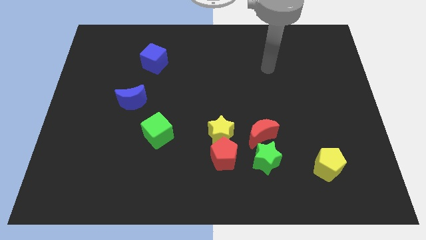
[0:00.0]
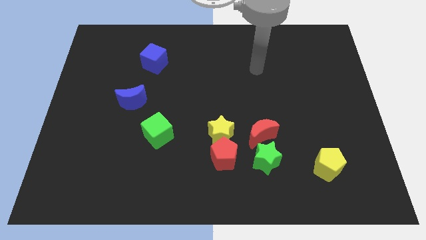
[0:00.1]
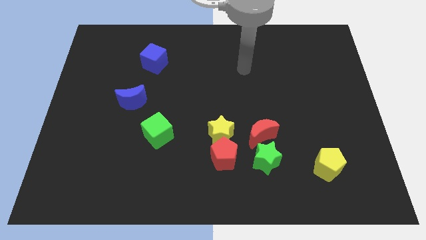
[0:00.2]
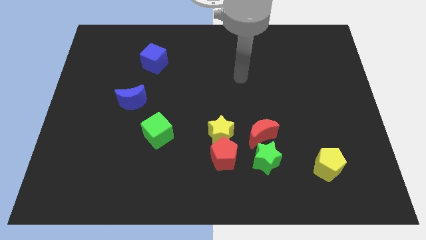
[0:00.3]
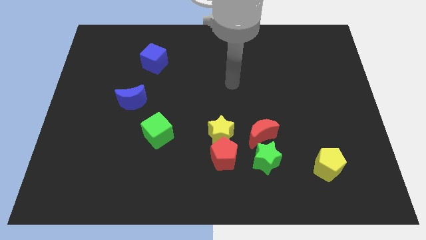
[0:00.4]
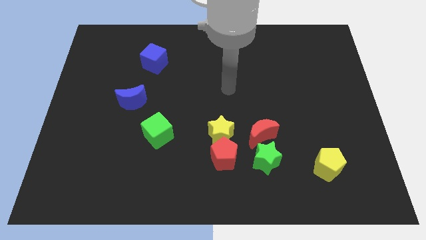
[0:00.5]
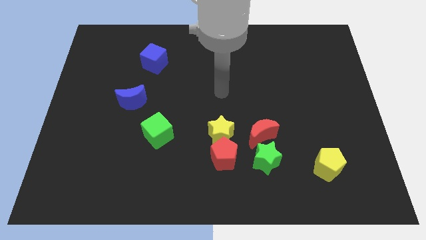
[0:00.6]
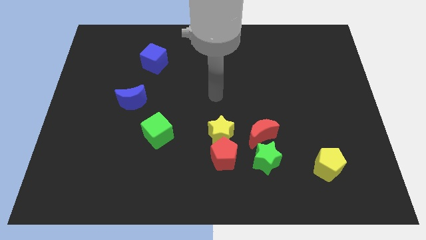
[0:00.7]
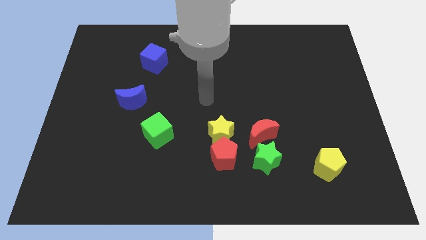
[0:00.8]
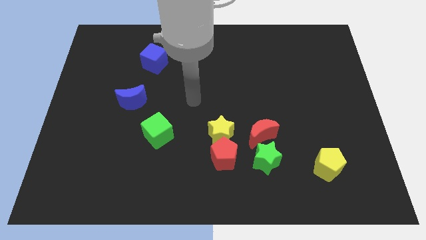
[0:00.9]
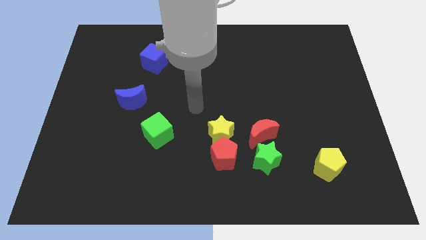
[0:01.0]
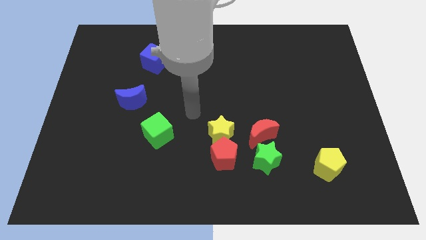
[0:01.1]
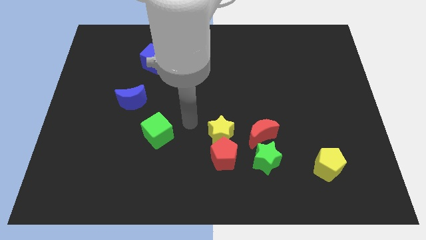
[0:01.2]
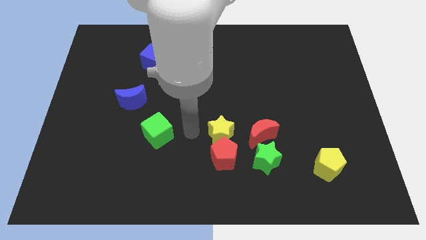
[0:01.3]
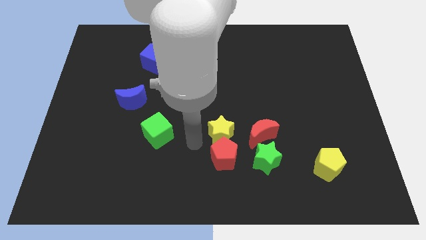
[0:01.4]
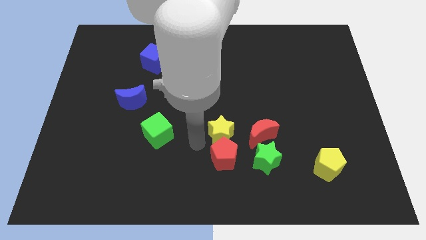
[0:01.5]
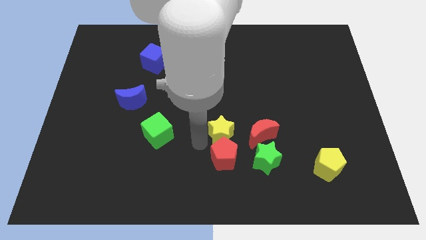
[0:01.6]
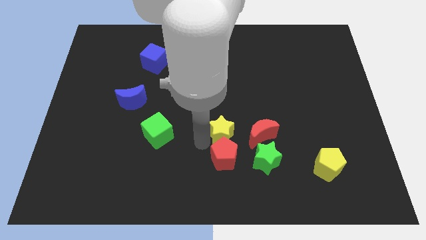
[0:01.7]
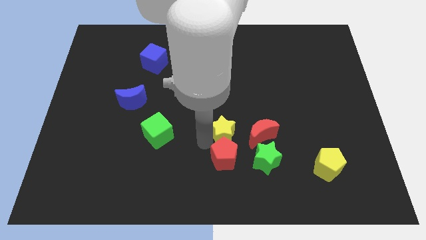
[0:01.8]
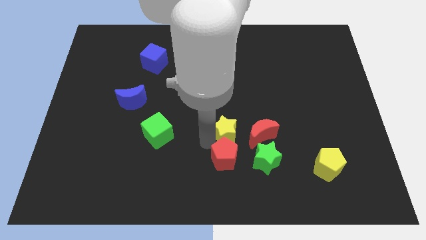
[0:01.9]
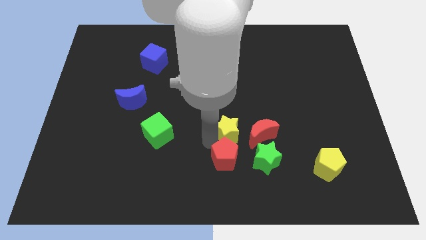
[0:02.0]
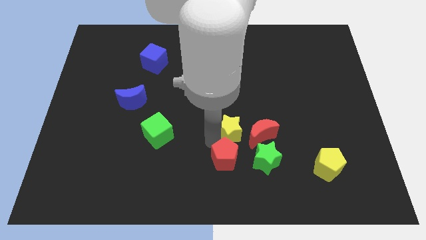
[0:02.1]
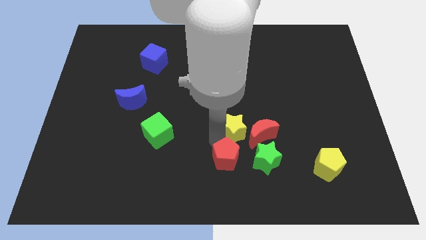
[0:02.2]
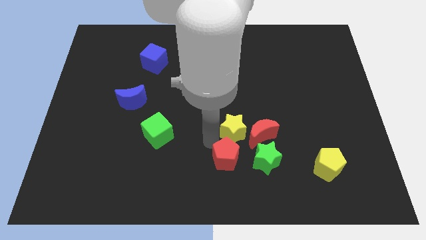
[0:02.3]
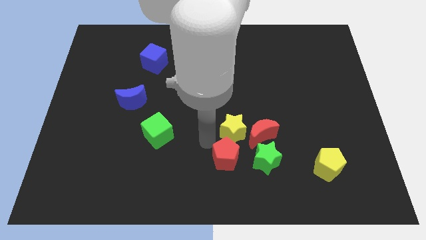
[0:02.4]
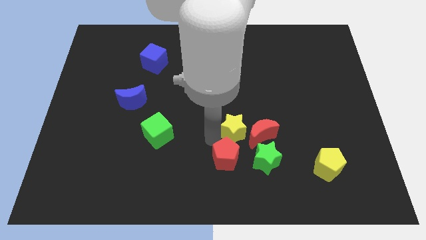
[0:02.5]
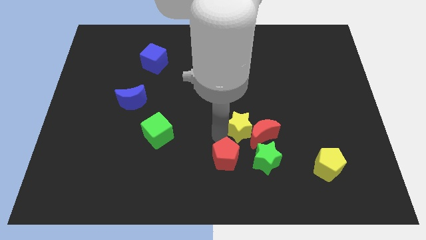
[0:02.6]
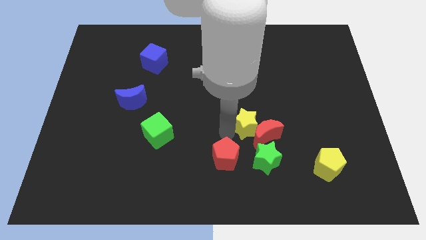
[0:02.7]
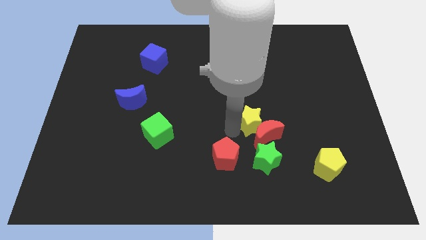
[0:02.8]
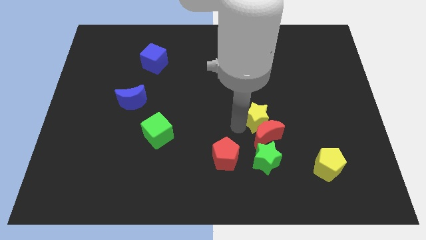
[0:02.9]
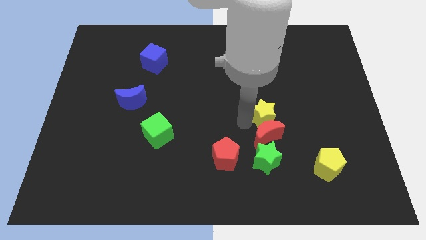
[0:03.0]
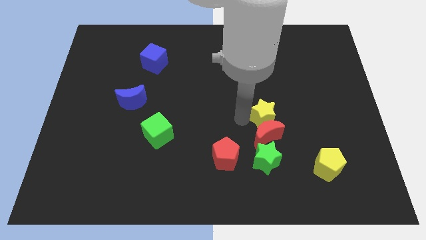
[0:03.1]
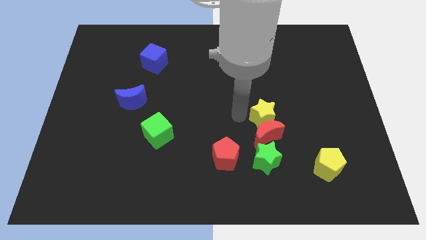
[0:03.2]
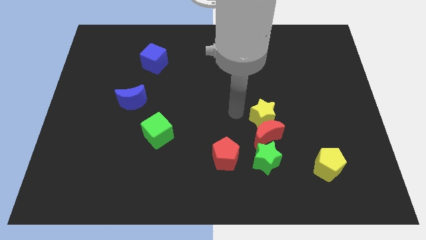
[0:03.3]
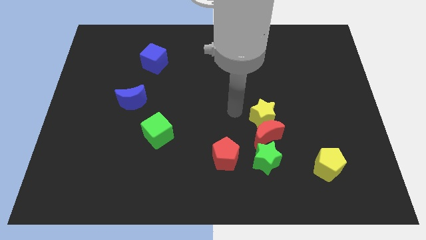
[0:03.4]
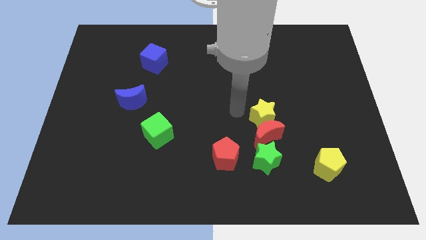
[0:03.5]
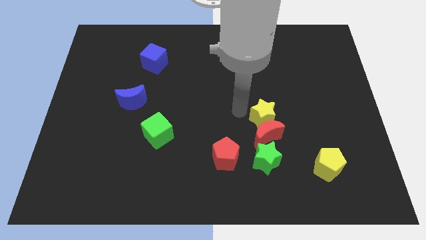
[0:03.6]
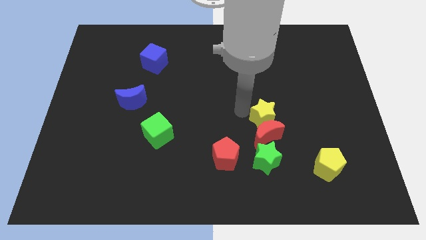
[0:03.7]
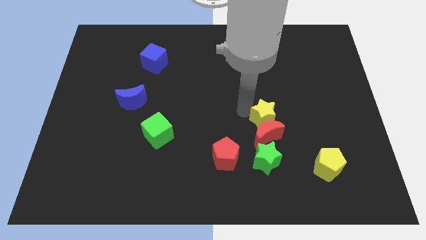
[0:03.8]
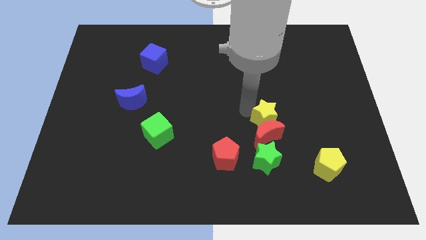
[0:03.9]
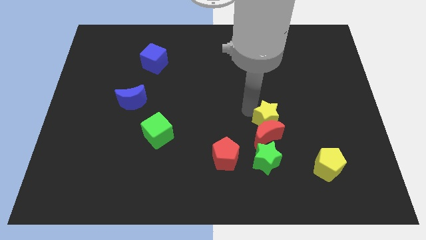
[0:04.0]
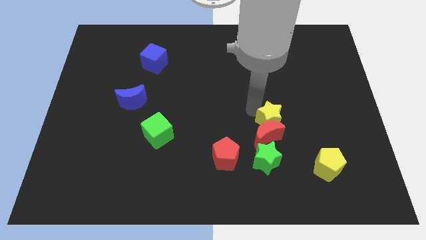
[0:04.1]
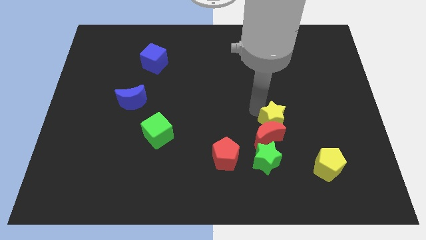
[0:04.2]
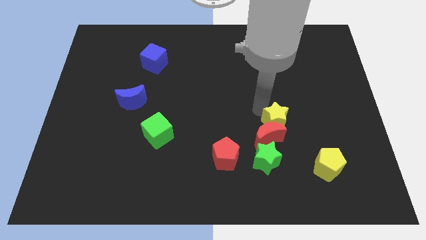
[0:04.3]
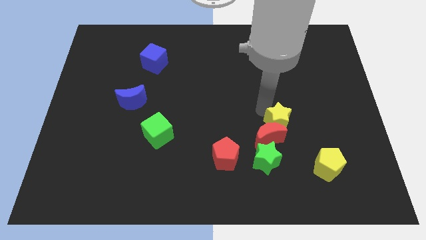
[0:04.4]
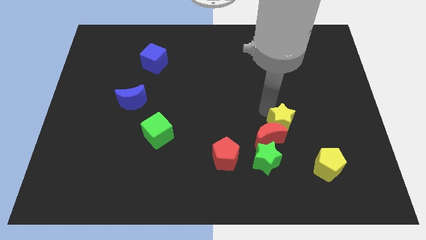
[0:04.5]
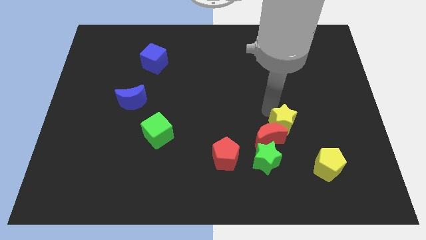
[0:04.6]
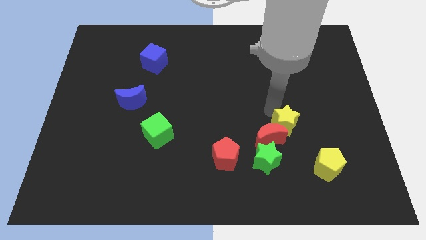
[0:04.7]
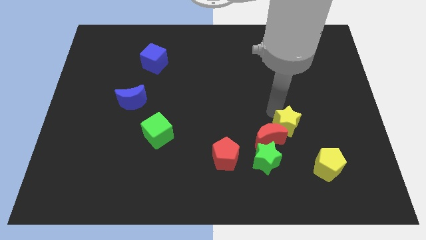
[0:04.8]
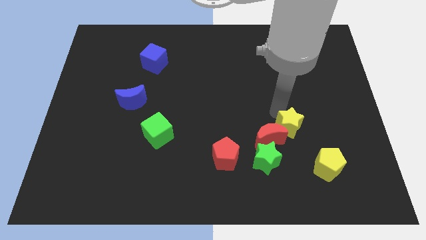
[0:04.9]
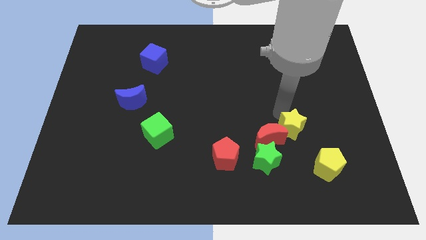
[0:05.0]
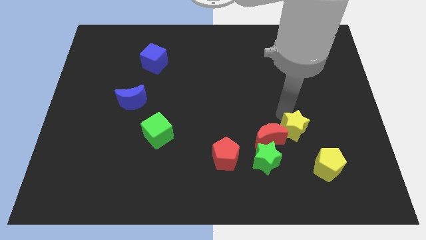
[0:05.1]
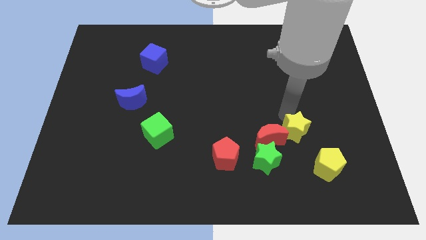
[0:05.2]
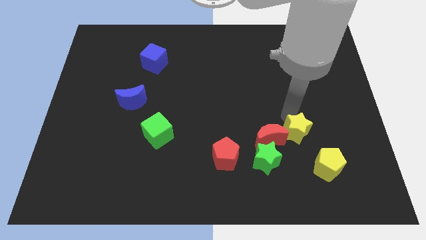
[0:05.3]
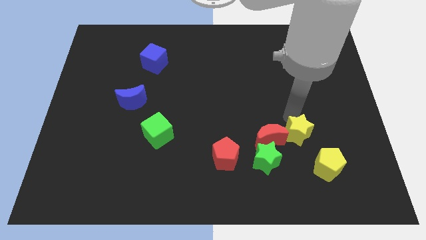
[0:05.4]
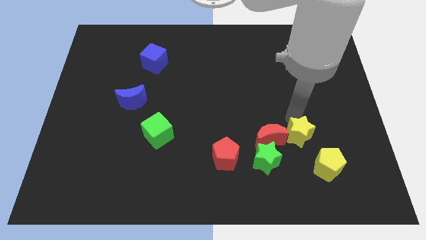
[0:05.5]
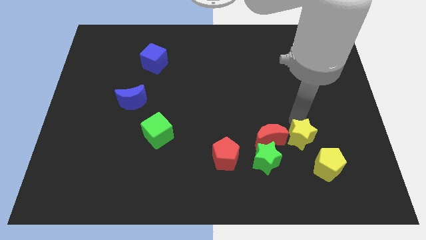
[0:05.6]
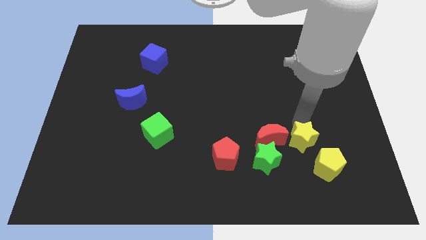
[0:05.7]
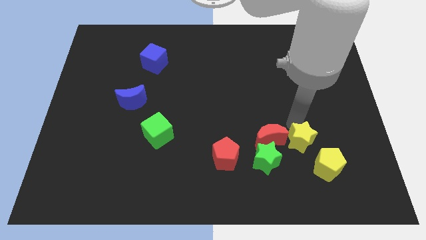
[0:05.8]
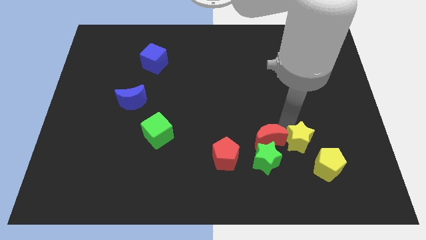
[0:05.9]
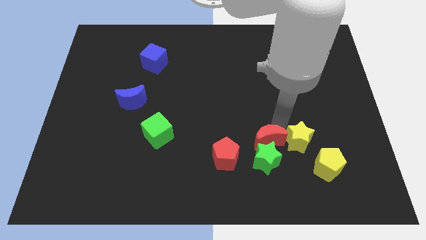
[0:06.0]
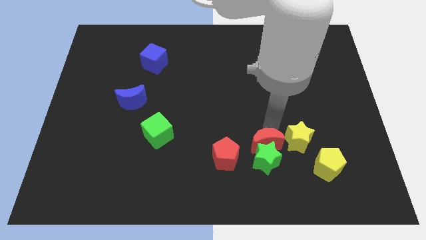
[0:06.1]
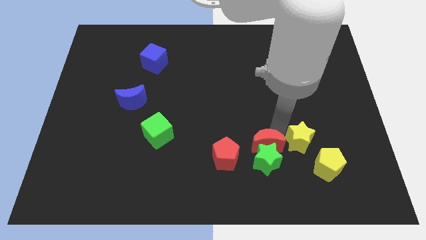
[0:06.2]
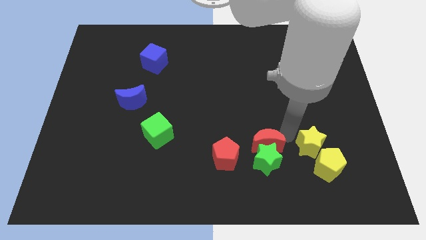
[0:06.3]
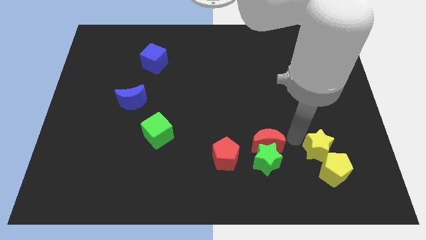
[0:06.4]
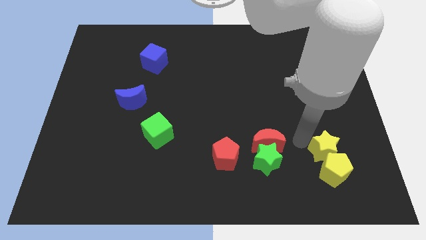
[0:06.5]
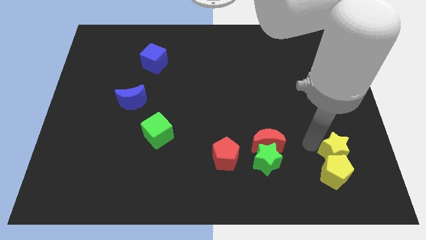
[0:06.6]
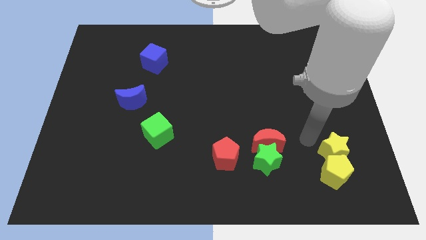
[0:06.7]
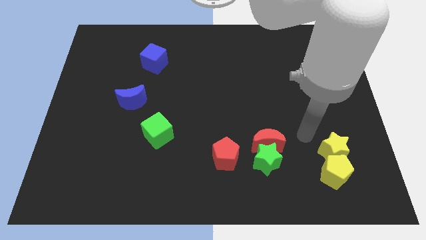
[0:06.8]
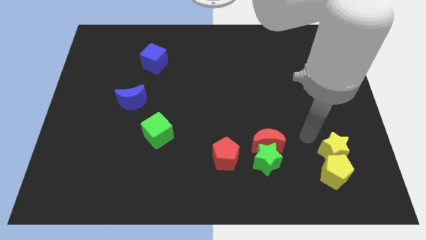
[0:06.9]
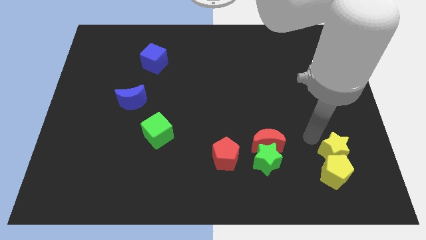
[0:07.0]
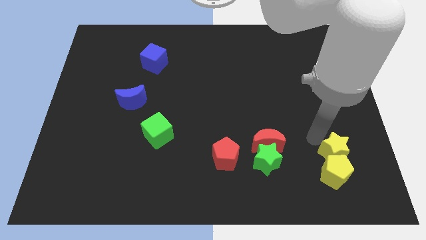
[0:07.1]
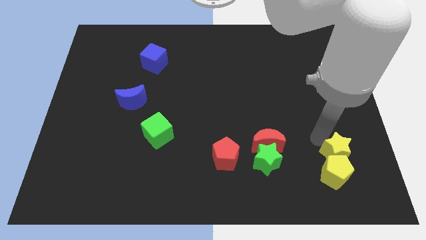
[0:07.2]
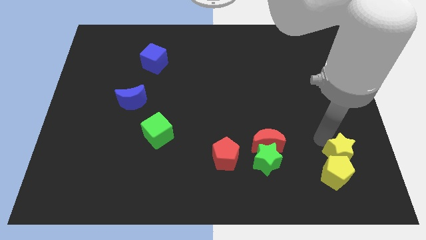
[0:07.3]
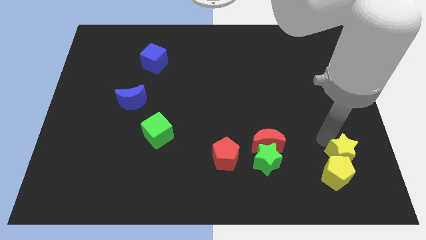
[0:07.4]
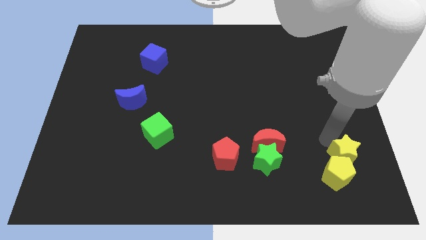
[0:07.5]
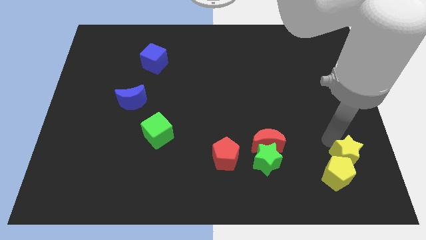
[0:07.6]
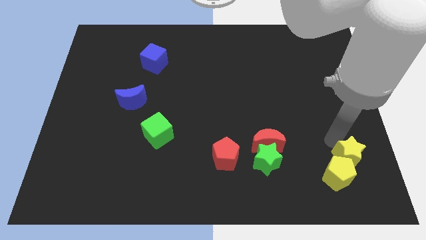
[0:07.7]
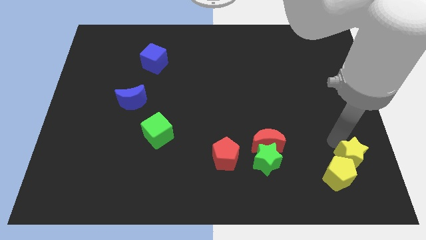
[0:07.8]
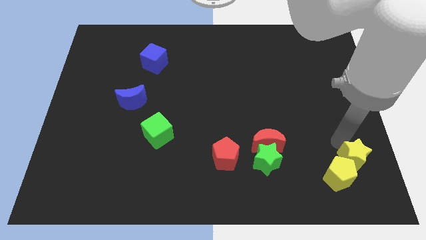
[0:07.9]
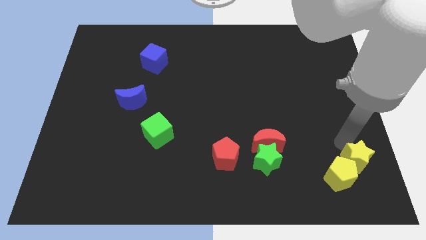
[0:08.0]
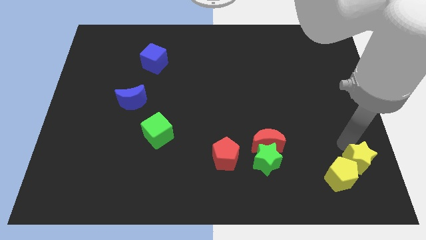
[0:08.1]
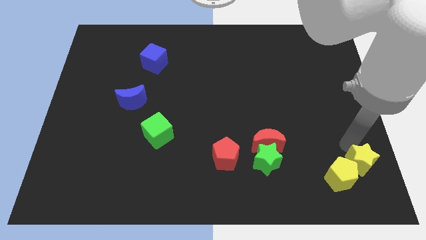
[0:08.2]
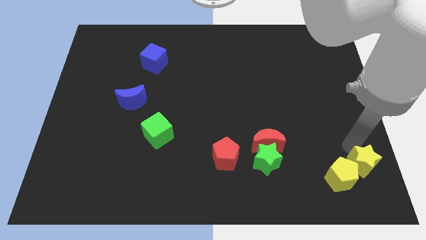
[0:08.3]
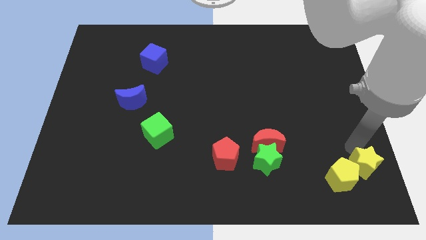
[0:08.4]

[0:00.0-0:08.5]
push the yellow star to the bottom right
